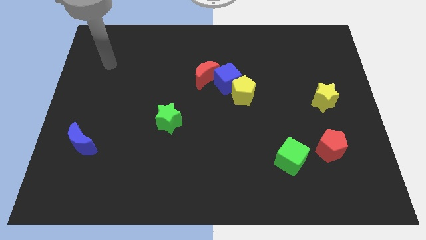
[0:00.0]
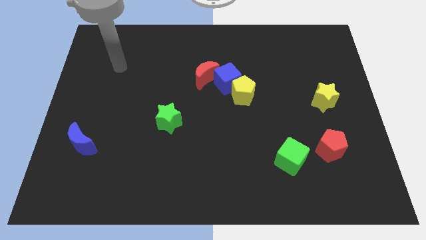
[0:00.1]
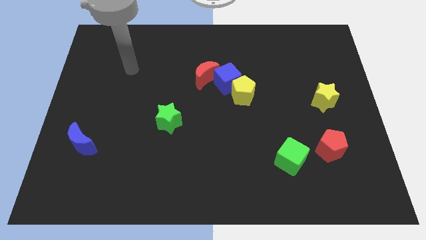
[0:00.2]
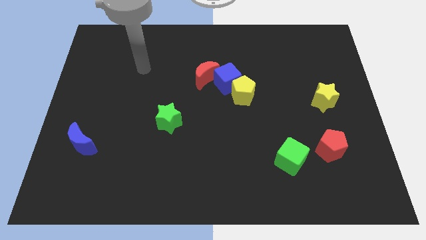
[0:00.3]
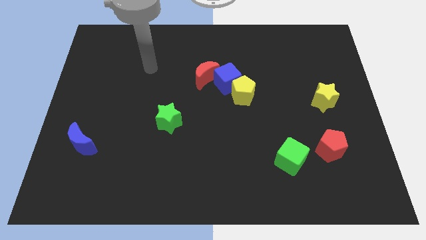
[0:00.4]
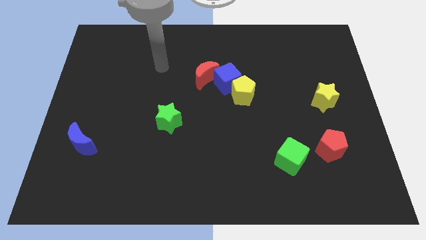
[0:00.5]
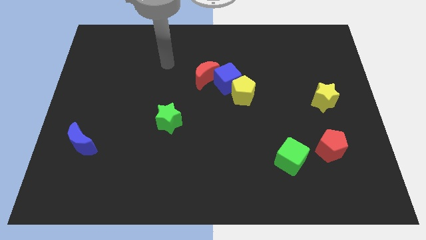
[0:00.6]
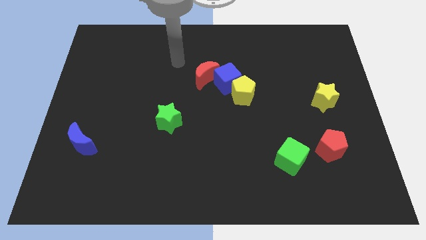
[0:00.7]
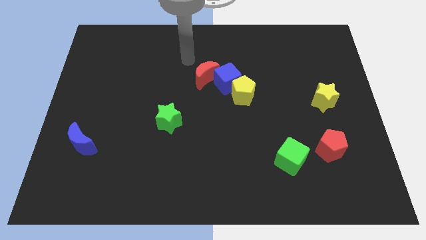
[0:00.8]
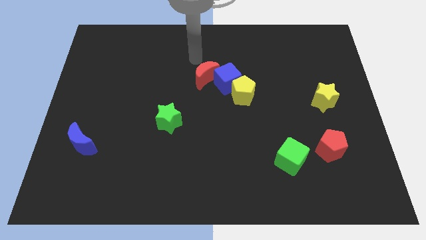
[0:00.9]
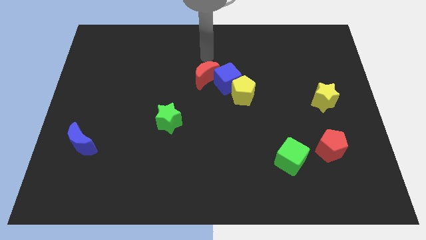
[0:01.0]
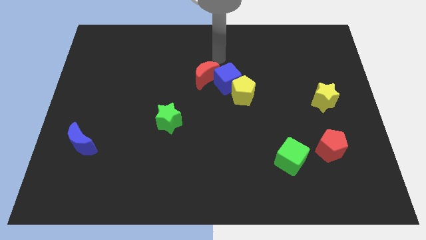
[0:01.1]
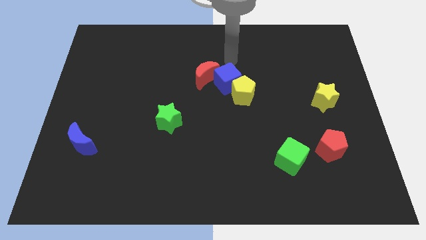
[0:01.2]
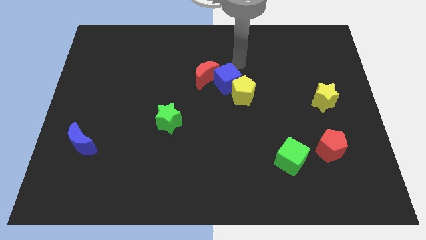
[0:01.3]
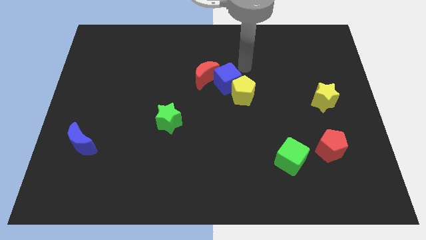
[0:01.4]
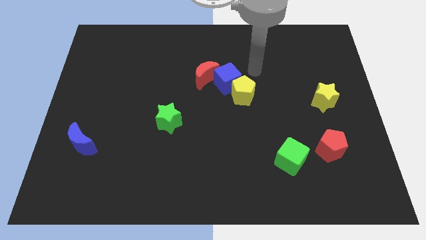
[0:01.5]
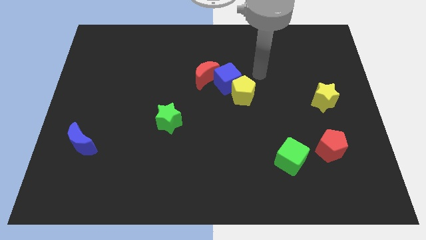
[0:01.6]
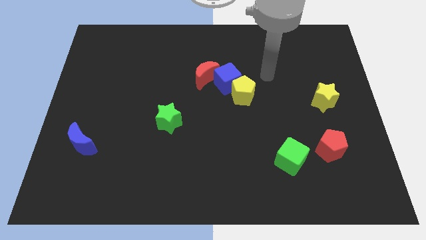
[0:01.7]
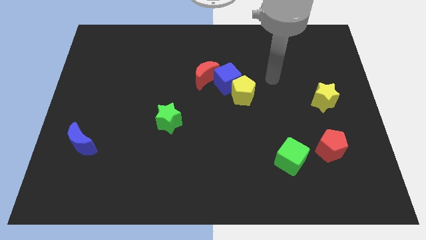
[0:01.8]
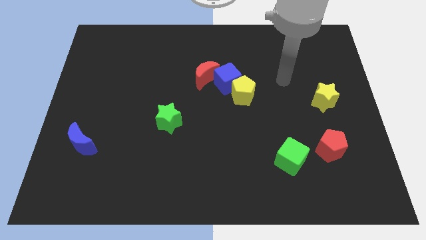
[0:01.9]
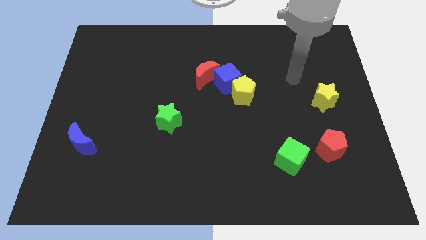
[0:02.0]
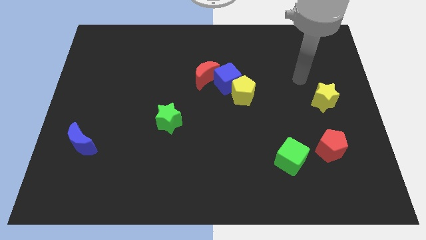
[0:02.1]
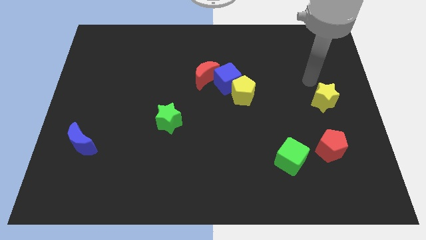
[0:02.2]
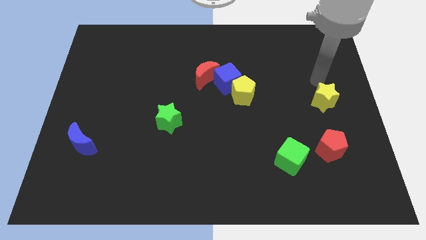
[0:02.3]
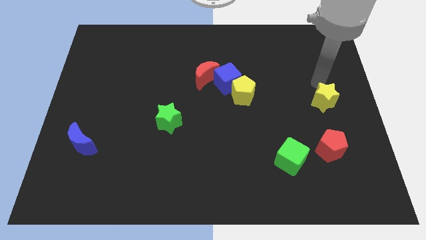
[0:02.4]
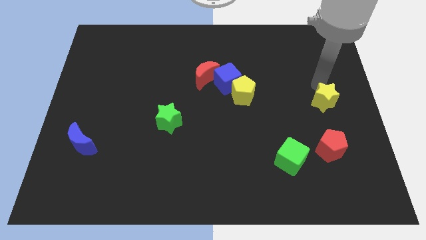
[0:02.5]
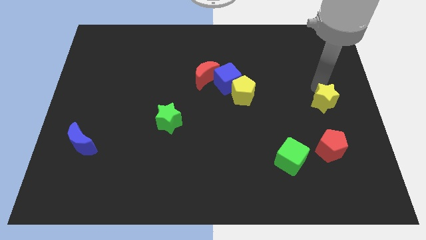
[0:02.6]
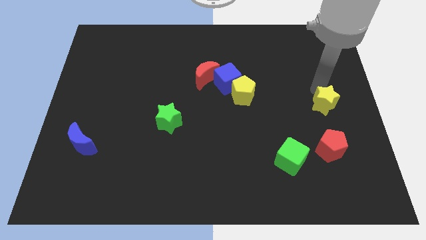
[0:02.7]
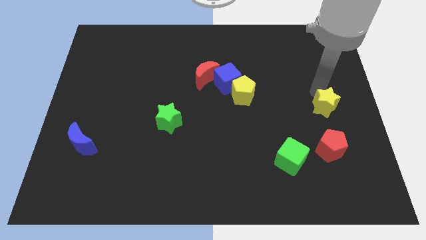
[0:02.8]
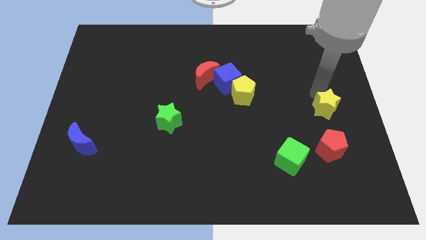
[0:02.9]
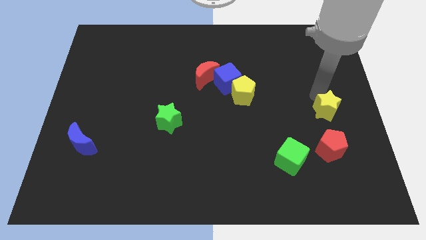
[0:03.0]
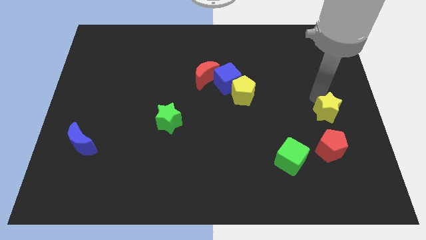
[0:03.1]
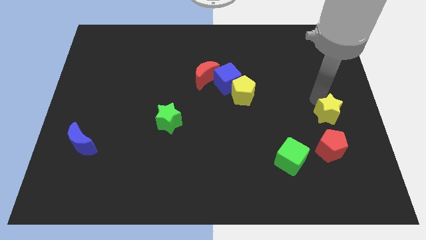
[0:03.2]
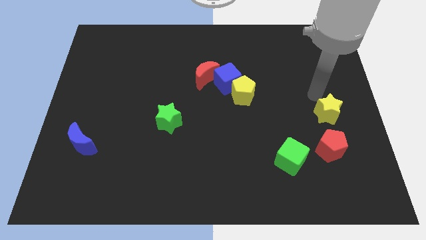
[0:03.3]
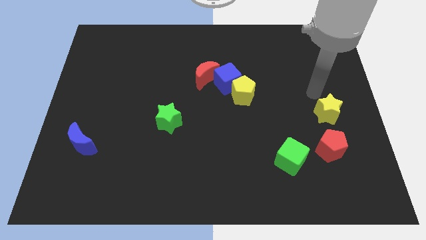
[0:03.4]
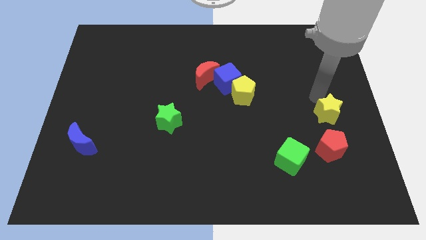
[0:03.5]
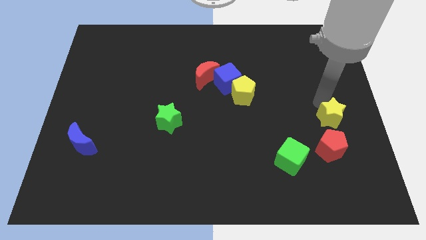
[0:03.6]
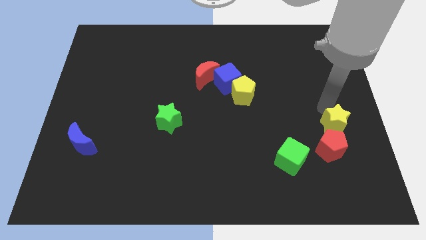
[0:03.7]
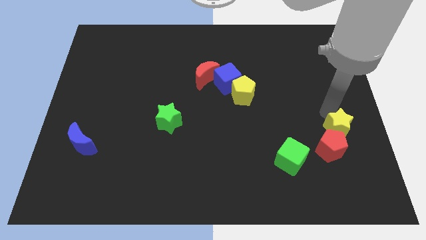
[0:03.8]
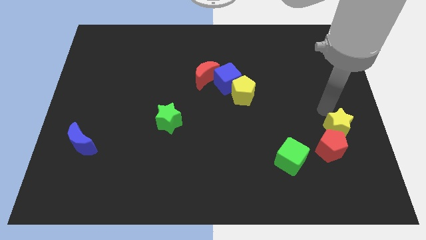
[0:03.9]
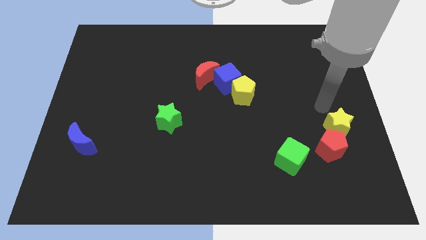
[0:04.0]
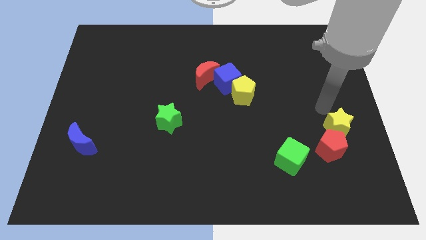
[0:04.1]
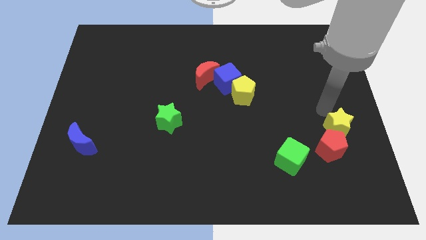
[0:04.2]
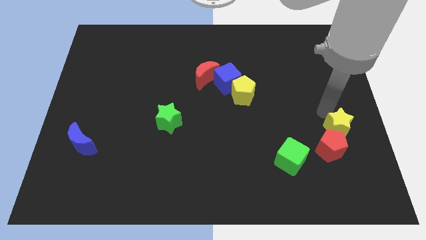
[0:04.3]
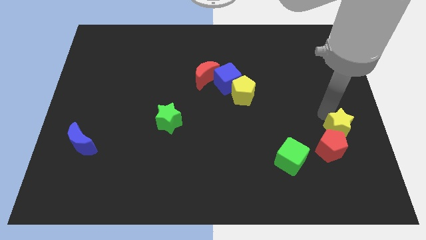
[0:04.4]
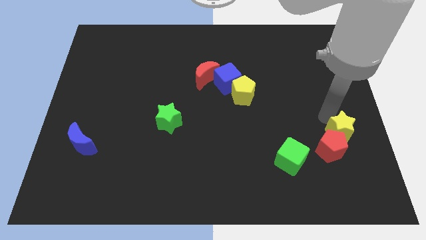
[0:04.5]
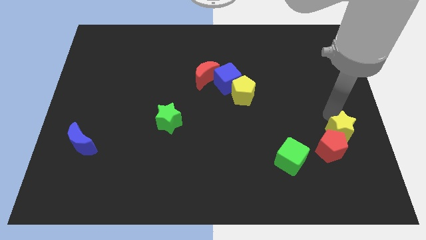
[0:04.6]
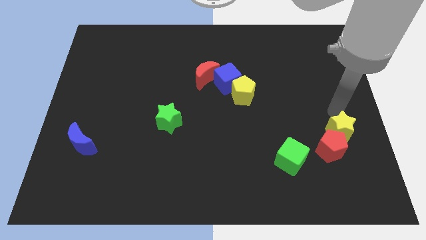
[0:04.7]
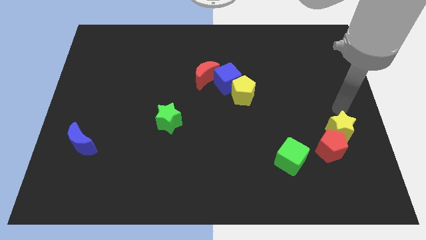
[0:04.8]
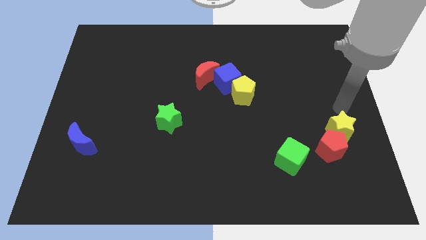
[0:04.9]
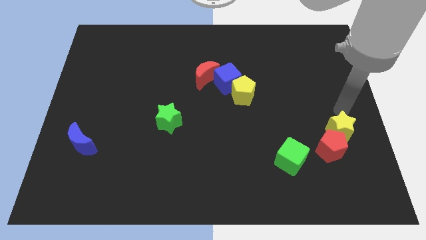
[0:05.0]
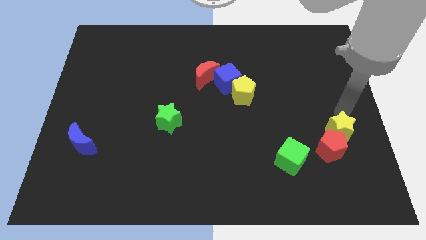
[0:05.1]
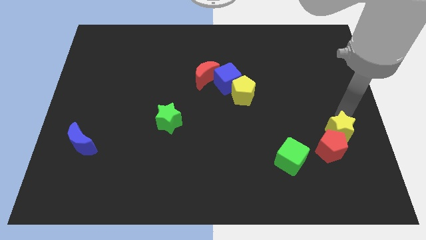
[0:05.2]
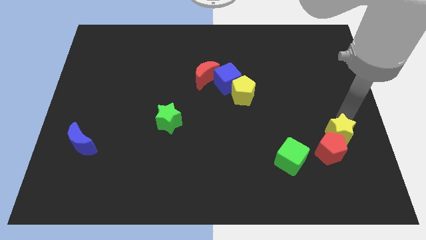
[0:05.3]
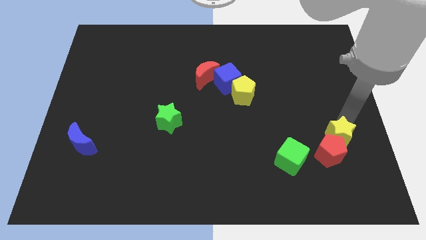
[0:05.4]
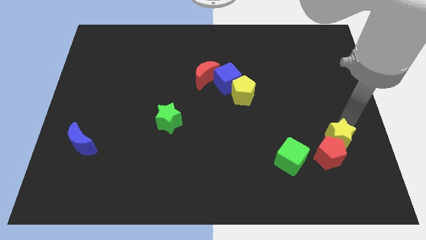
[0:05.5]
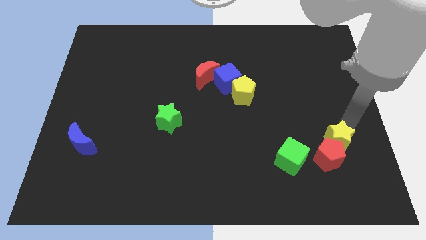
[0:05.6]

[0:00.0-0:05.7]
put the yellow star to the right of the green cube
